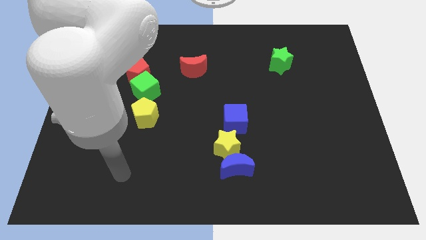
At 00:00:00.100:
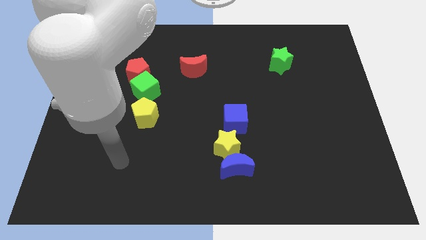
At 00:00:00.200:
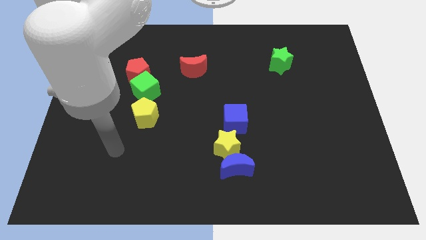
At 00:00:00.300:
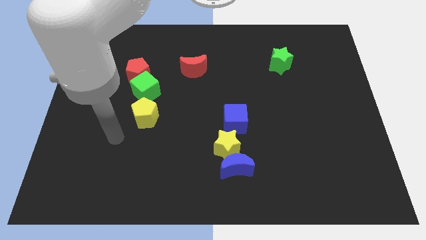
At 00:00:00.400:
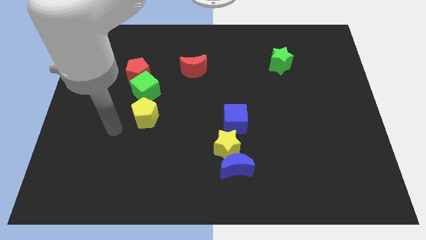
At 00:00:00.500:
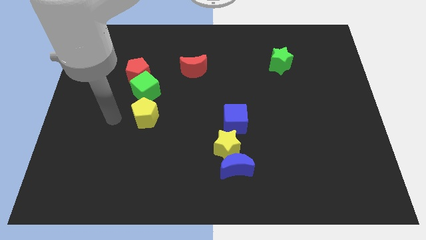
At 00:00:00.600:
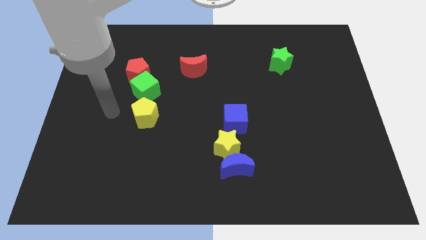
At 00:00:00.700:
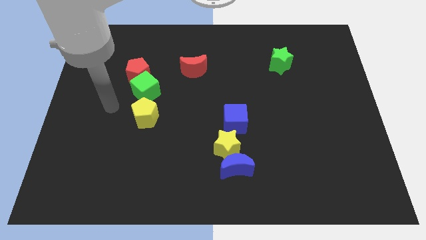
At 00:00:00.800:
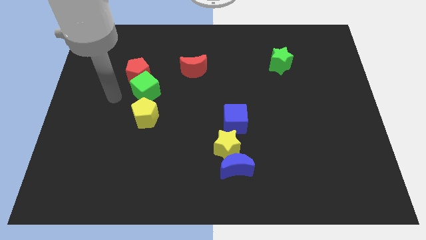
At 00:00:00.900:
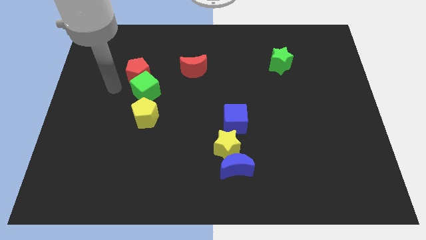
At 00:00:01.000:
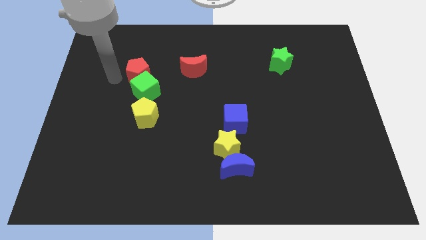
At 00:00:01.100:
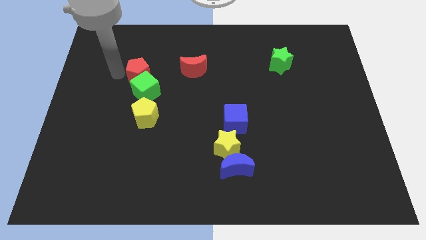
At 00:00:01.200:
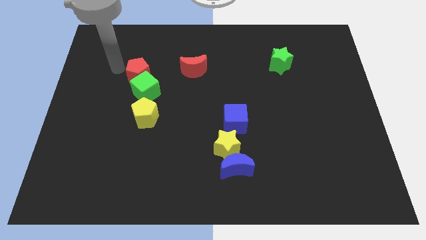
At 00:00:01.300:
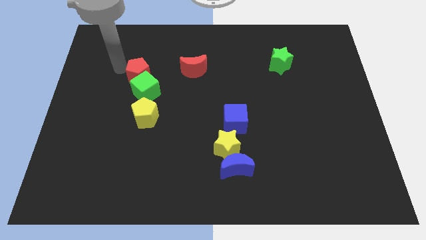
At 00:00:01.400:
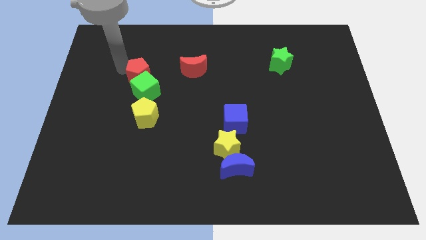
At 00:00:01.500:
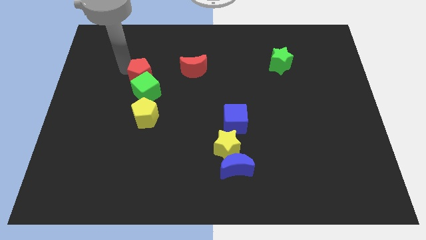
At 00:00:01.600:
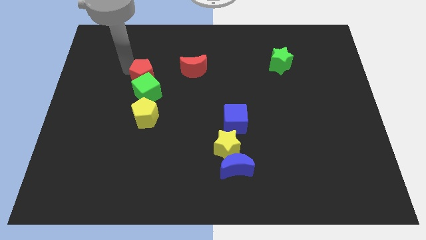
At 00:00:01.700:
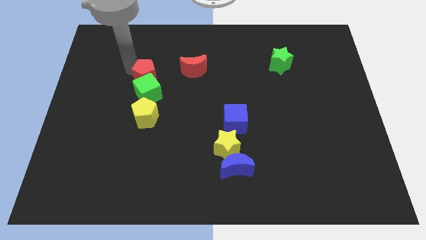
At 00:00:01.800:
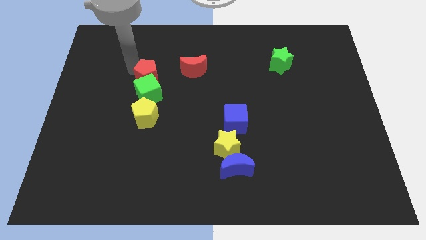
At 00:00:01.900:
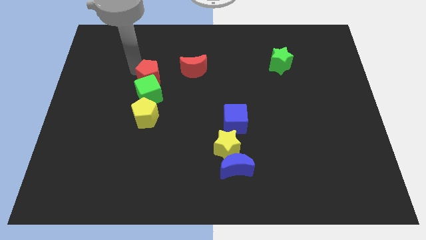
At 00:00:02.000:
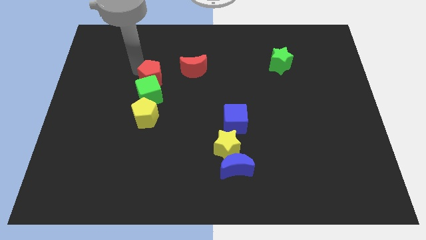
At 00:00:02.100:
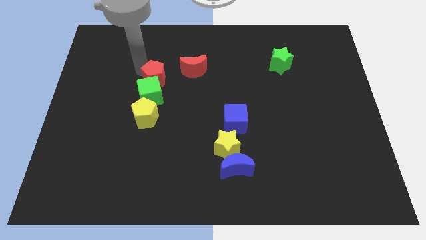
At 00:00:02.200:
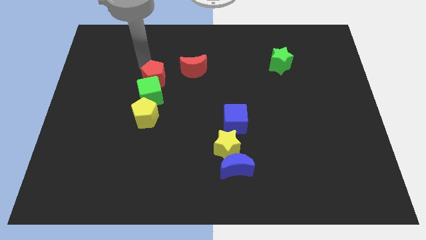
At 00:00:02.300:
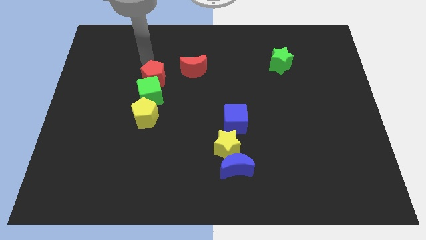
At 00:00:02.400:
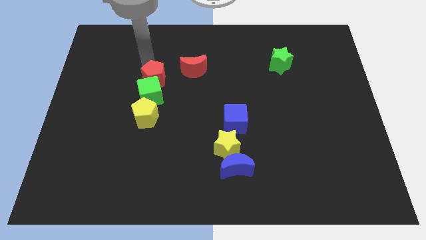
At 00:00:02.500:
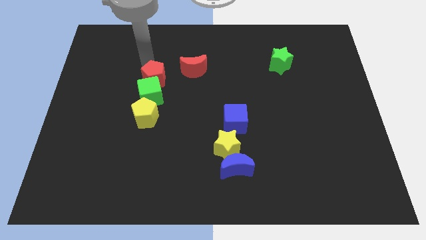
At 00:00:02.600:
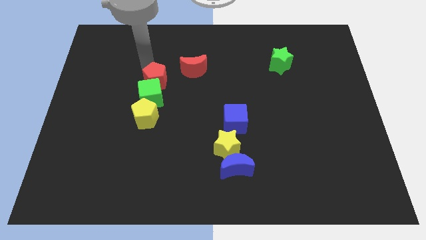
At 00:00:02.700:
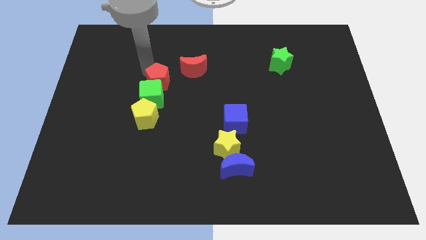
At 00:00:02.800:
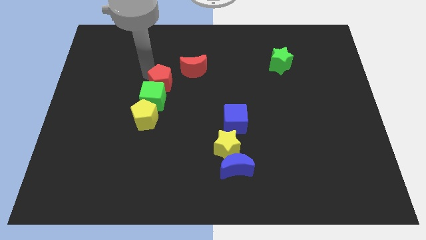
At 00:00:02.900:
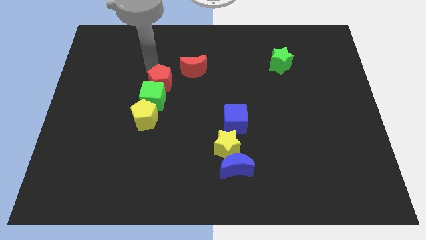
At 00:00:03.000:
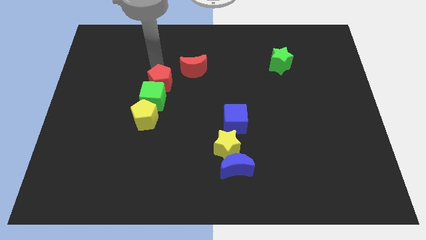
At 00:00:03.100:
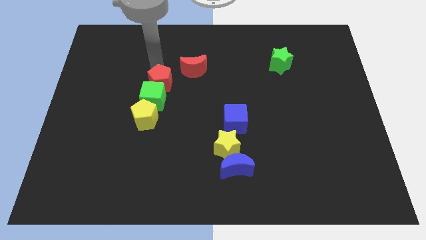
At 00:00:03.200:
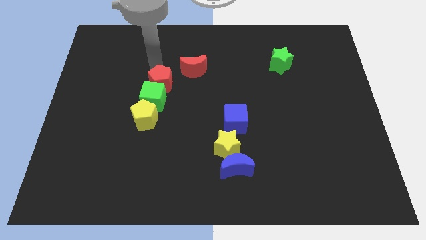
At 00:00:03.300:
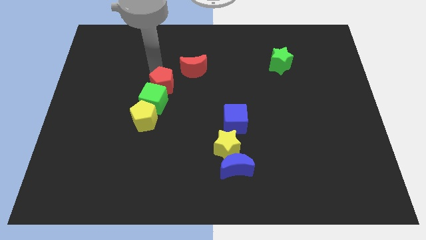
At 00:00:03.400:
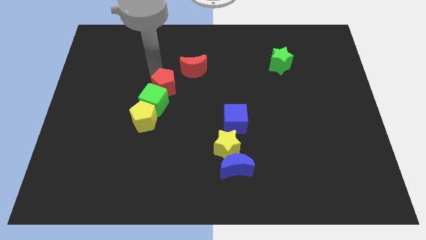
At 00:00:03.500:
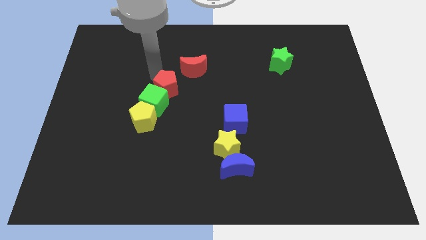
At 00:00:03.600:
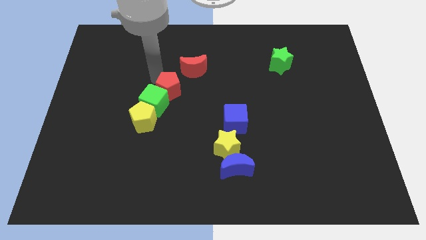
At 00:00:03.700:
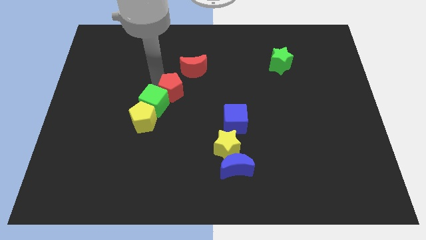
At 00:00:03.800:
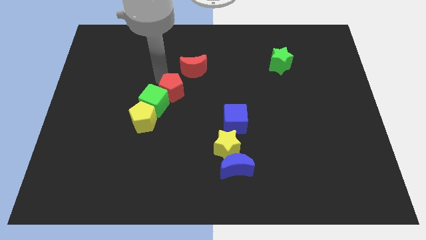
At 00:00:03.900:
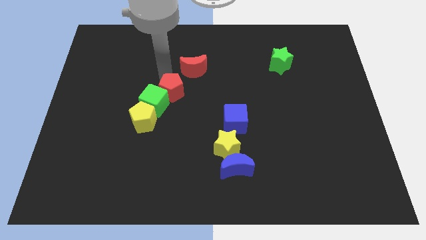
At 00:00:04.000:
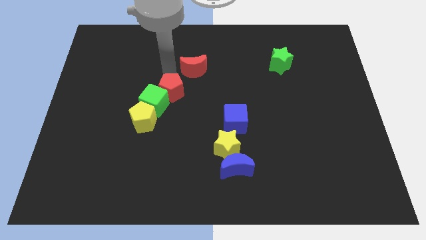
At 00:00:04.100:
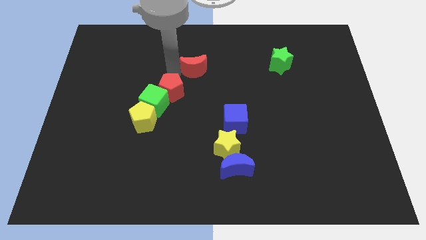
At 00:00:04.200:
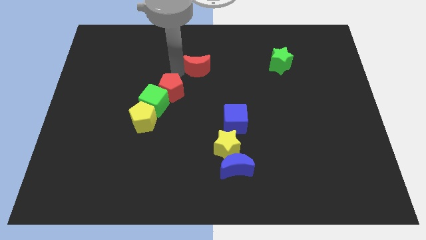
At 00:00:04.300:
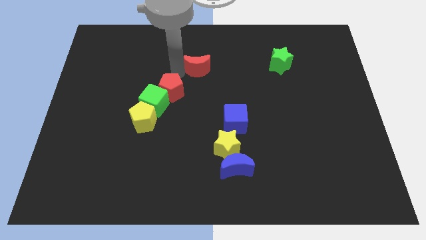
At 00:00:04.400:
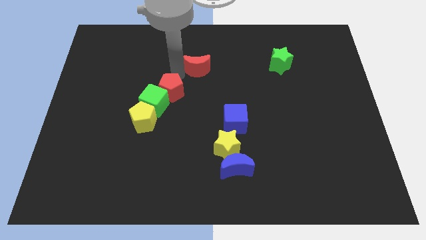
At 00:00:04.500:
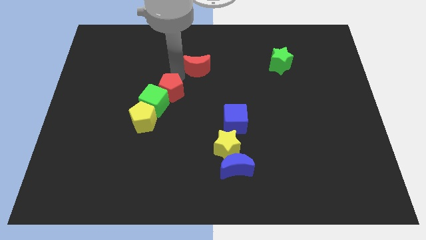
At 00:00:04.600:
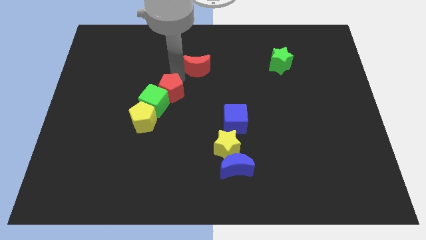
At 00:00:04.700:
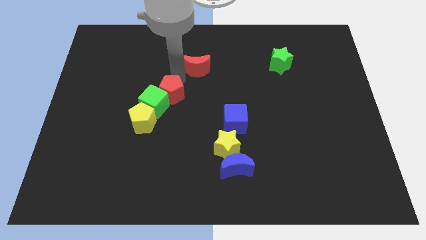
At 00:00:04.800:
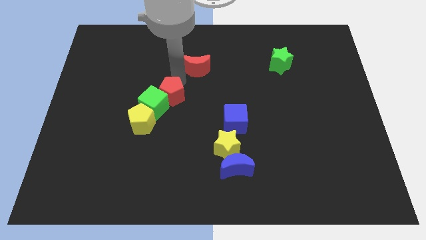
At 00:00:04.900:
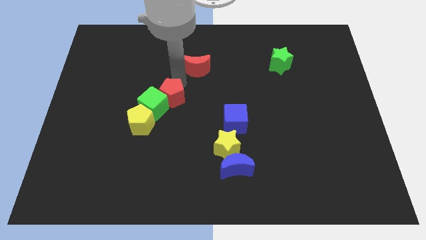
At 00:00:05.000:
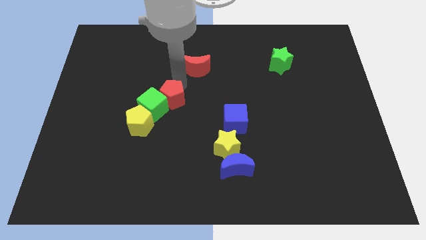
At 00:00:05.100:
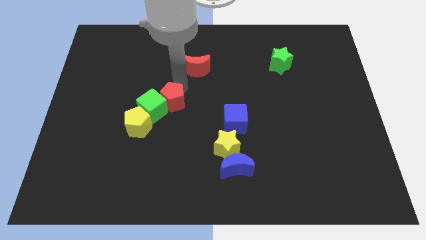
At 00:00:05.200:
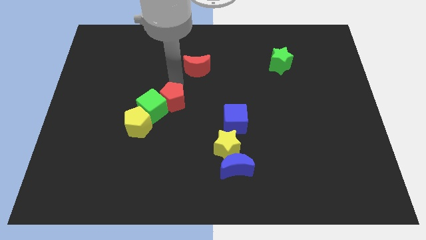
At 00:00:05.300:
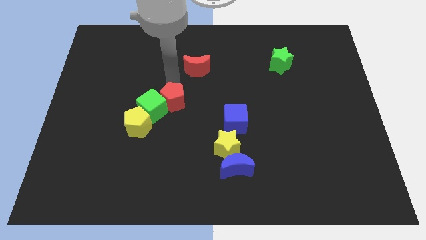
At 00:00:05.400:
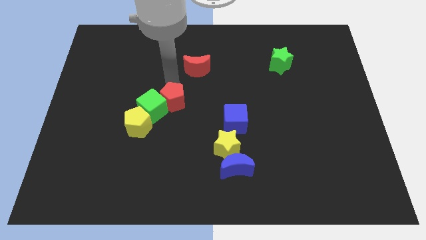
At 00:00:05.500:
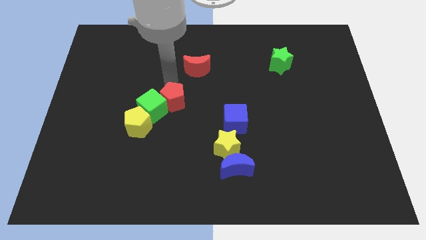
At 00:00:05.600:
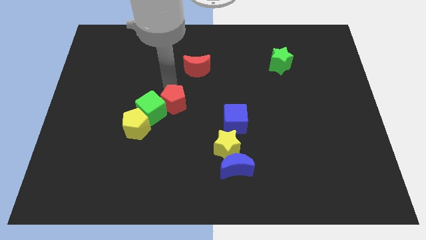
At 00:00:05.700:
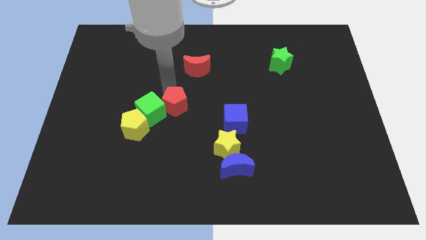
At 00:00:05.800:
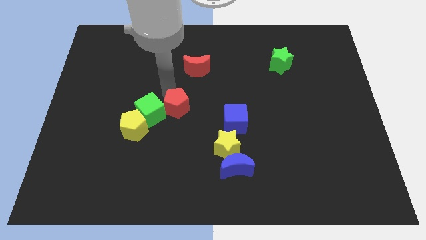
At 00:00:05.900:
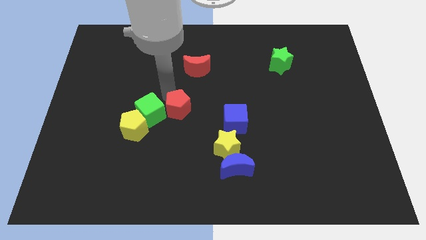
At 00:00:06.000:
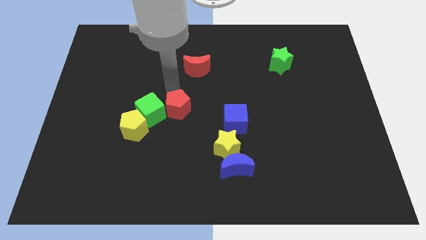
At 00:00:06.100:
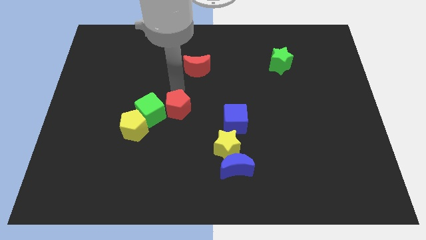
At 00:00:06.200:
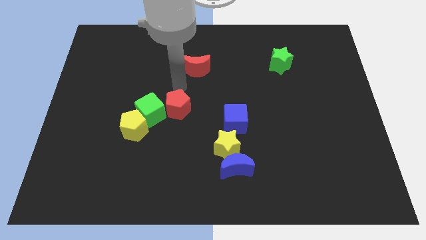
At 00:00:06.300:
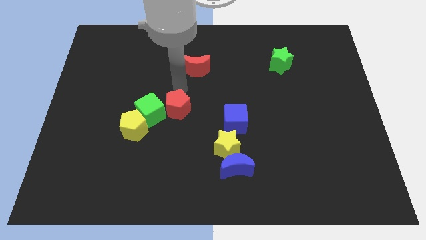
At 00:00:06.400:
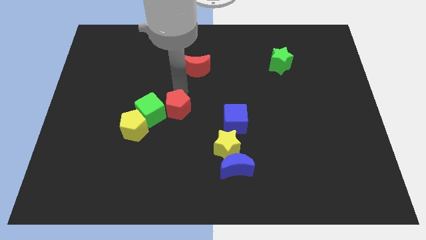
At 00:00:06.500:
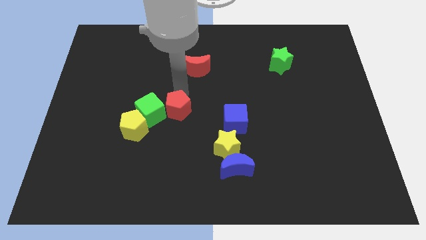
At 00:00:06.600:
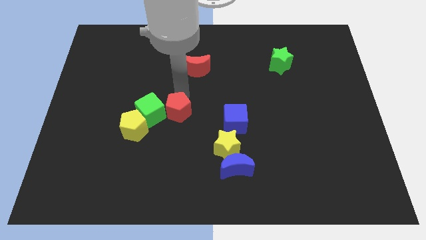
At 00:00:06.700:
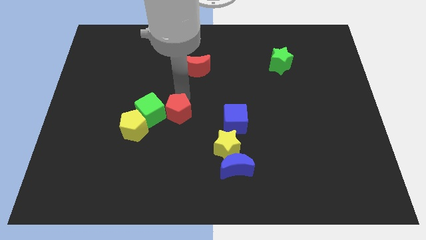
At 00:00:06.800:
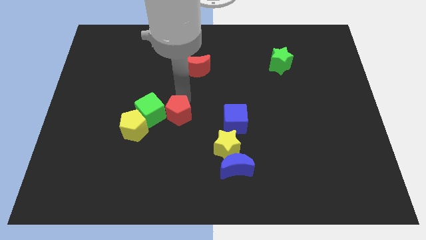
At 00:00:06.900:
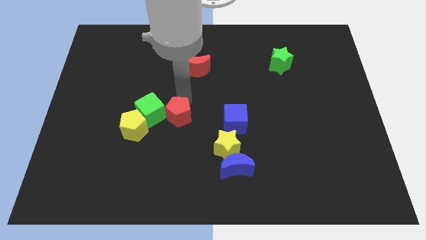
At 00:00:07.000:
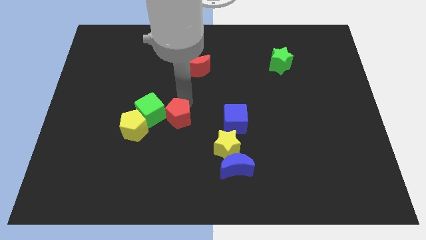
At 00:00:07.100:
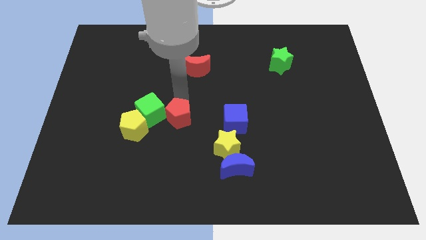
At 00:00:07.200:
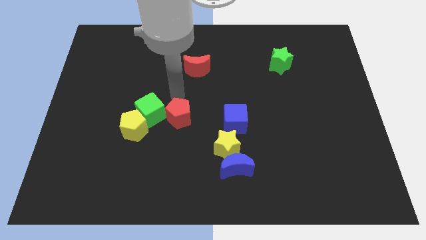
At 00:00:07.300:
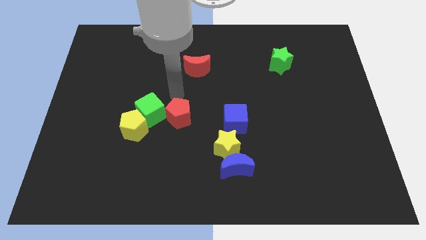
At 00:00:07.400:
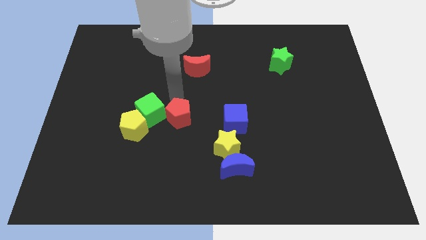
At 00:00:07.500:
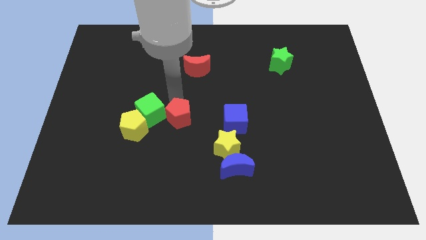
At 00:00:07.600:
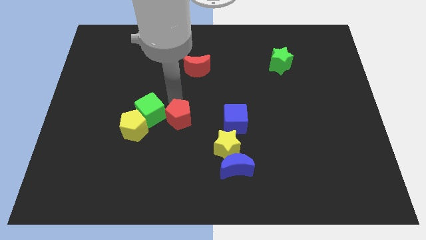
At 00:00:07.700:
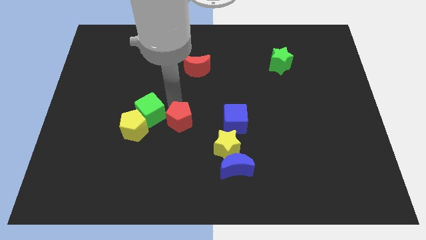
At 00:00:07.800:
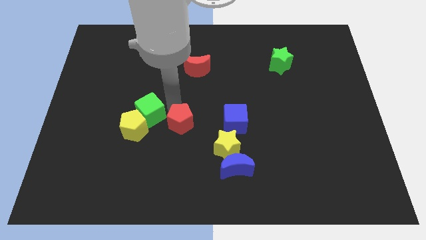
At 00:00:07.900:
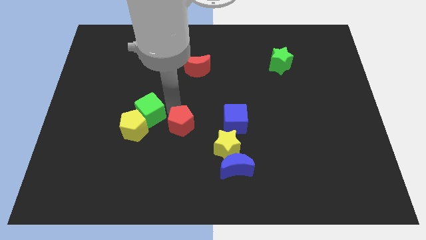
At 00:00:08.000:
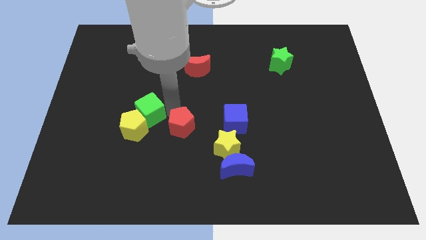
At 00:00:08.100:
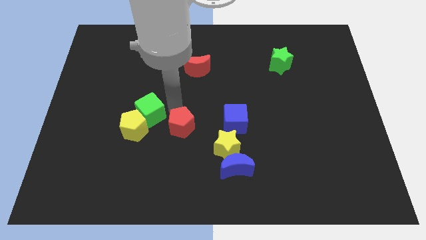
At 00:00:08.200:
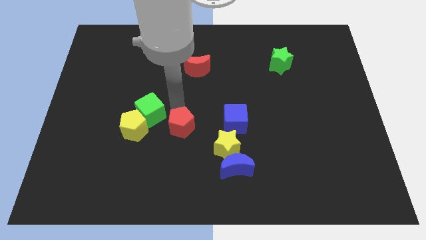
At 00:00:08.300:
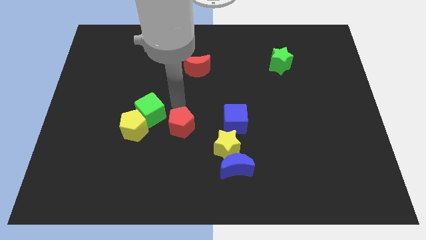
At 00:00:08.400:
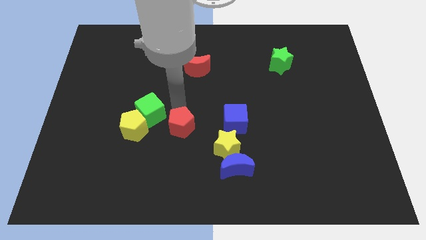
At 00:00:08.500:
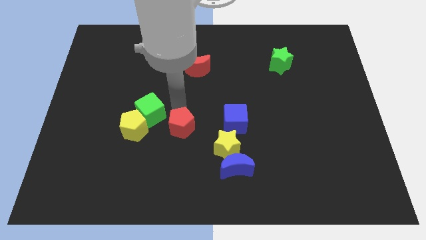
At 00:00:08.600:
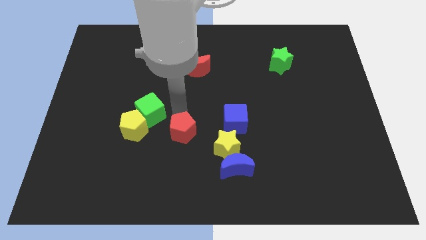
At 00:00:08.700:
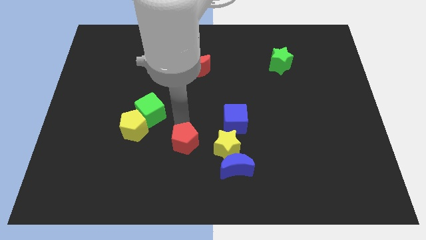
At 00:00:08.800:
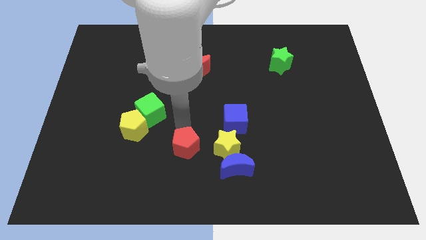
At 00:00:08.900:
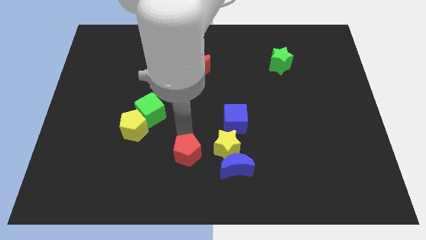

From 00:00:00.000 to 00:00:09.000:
push the red pentagon to the left side of the blue moon
